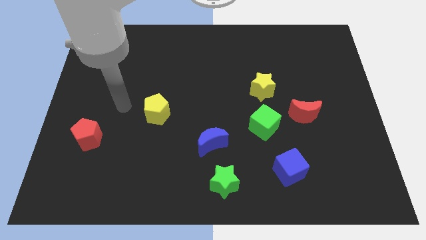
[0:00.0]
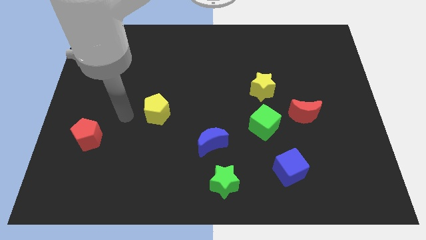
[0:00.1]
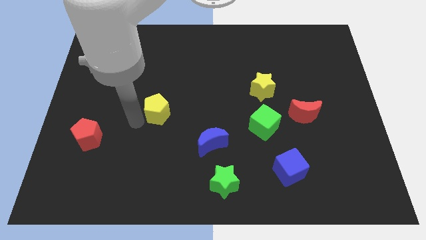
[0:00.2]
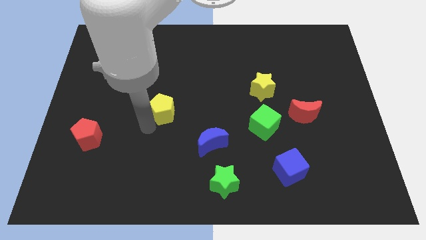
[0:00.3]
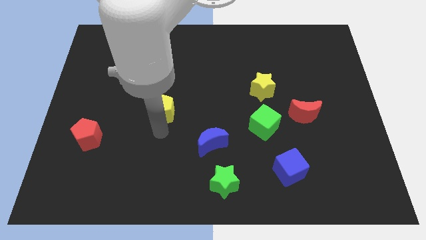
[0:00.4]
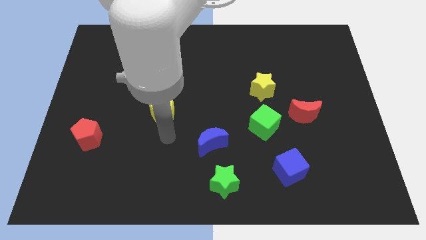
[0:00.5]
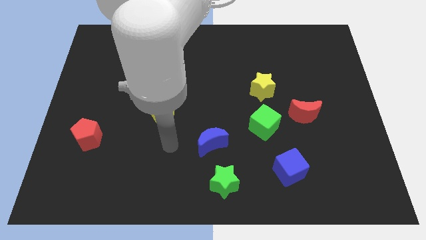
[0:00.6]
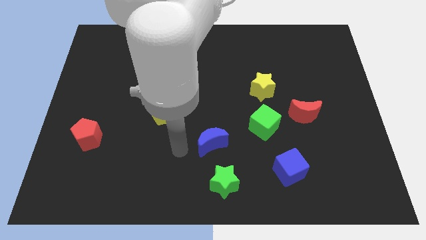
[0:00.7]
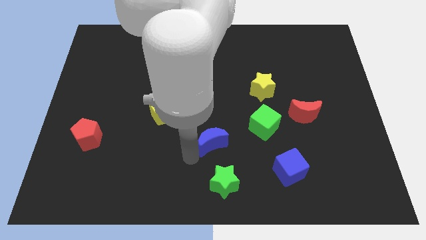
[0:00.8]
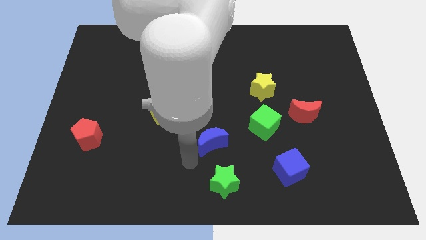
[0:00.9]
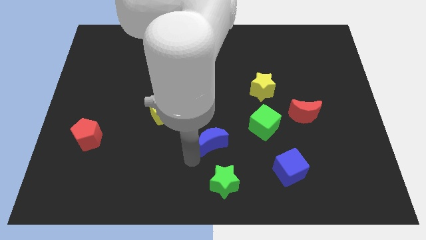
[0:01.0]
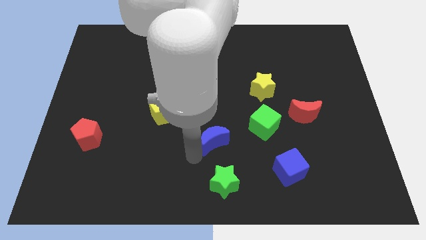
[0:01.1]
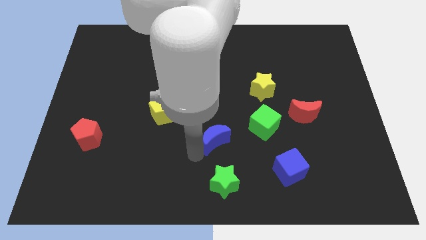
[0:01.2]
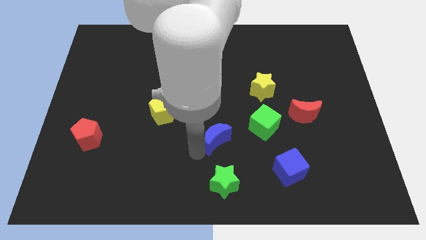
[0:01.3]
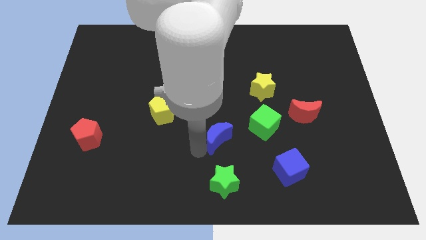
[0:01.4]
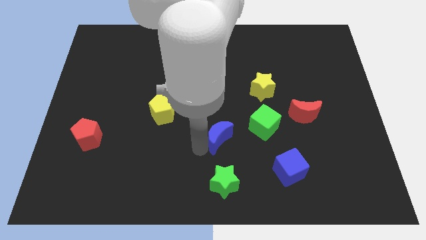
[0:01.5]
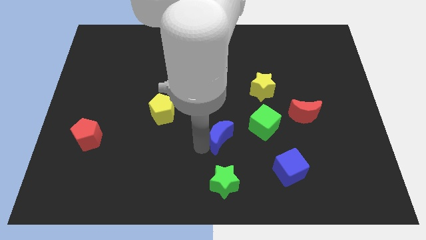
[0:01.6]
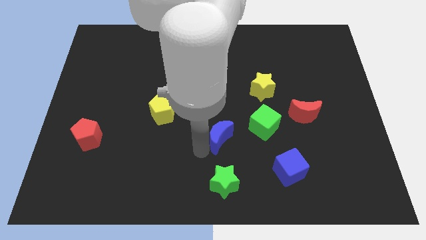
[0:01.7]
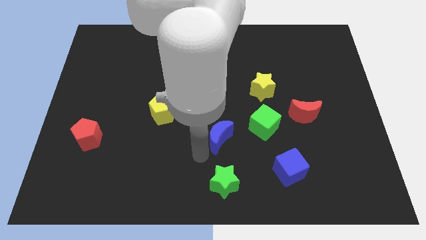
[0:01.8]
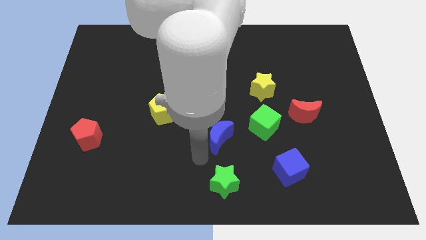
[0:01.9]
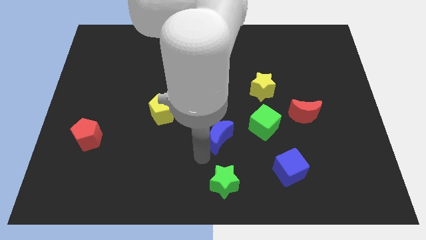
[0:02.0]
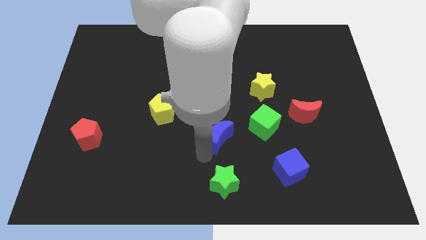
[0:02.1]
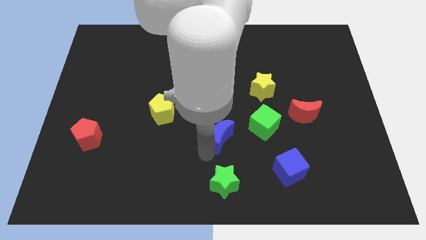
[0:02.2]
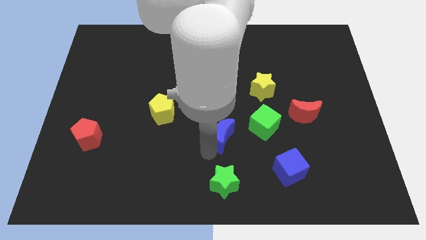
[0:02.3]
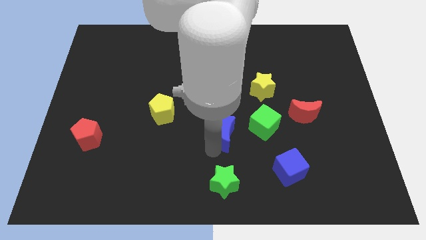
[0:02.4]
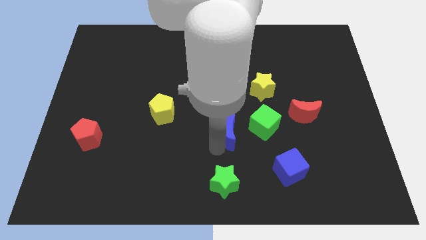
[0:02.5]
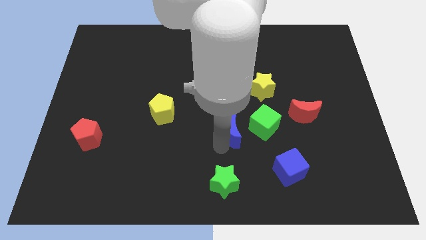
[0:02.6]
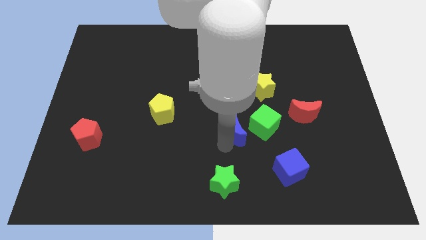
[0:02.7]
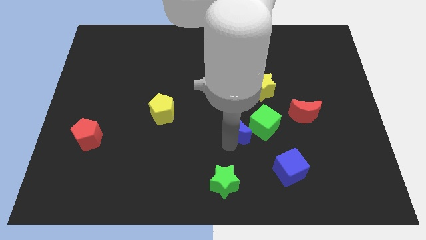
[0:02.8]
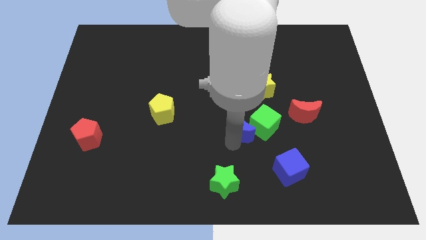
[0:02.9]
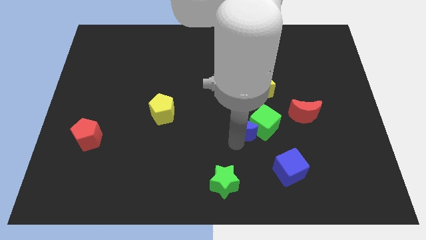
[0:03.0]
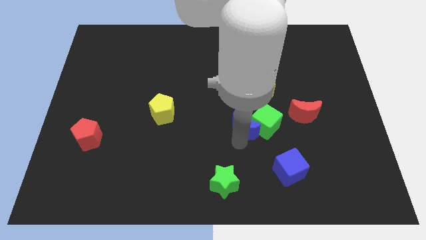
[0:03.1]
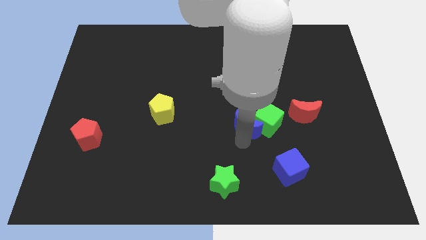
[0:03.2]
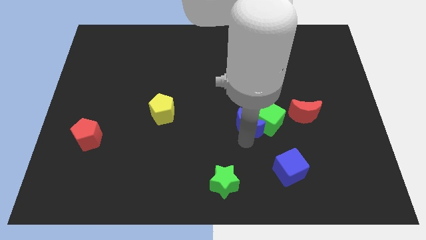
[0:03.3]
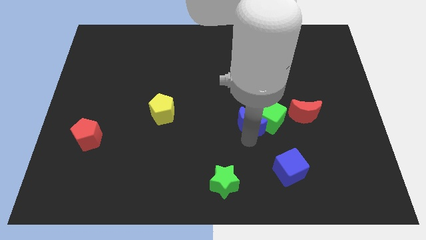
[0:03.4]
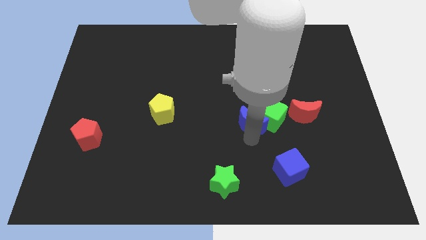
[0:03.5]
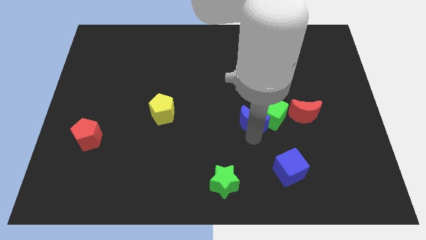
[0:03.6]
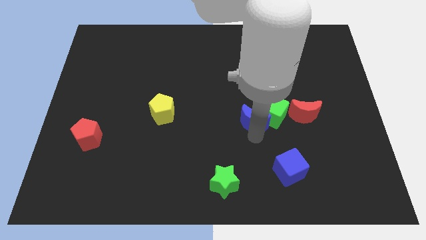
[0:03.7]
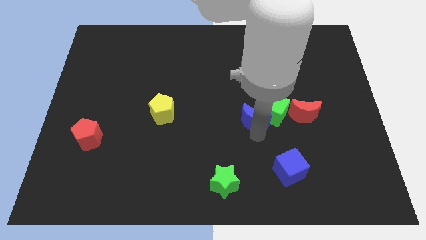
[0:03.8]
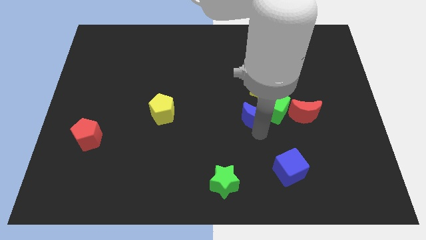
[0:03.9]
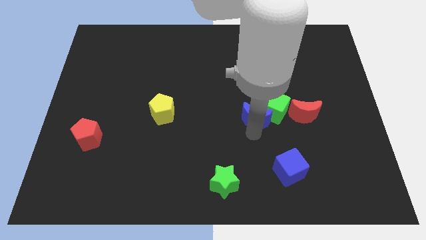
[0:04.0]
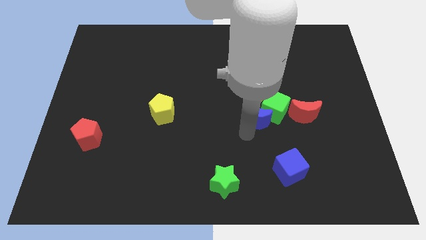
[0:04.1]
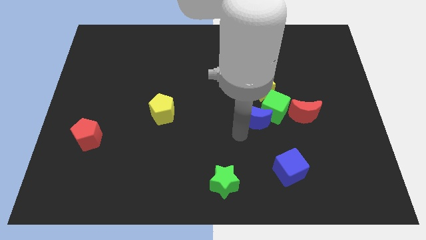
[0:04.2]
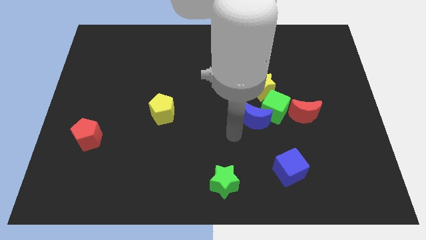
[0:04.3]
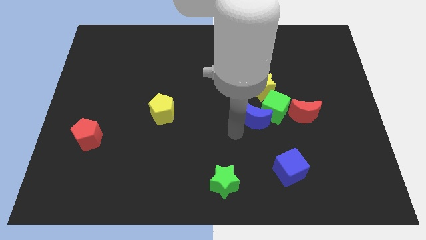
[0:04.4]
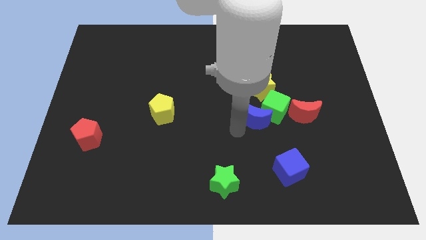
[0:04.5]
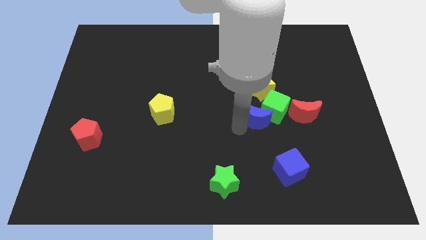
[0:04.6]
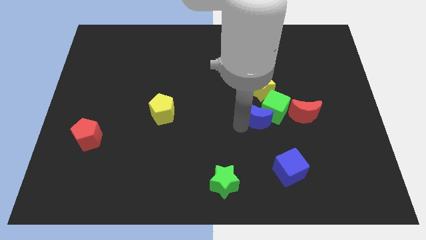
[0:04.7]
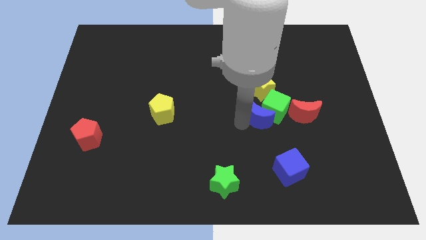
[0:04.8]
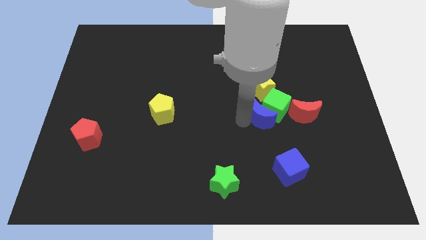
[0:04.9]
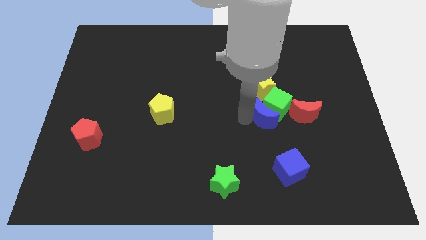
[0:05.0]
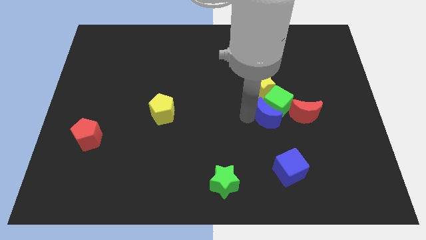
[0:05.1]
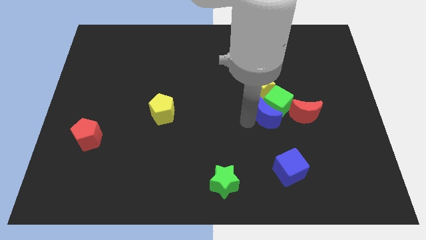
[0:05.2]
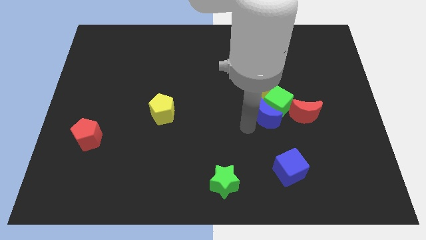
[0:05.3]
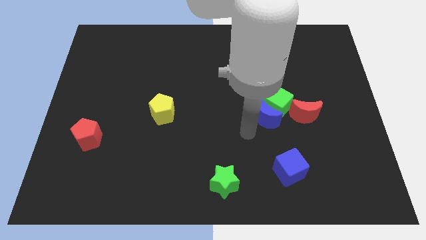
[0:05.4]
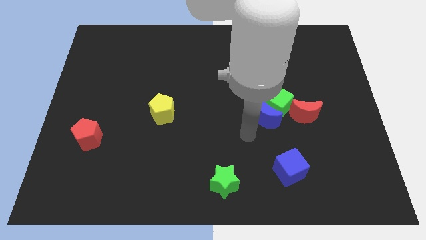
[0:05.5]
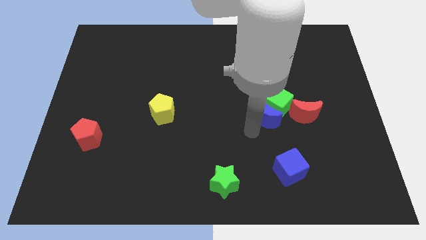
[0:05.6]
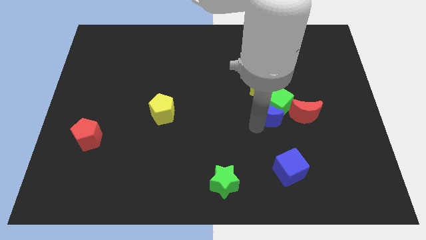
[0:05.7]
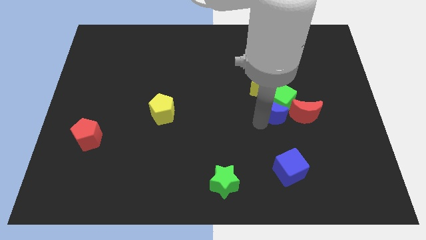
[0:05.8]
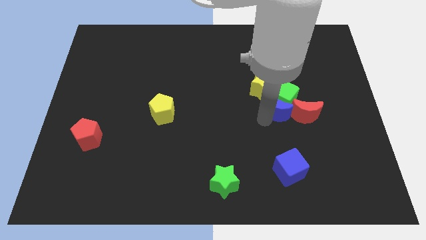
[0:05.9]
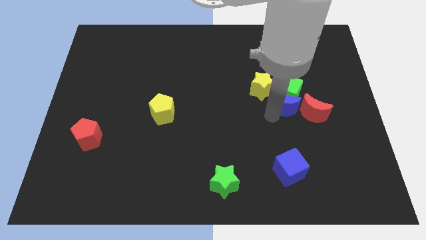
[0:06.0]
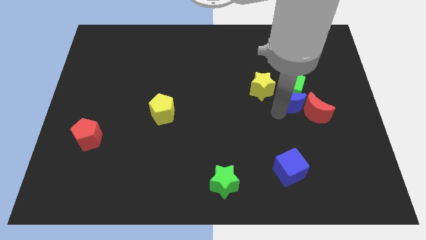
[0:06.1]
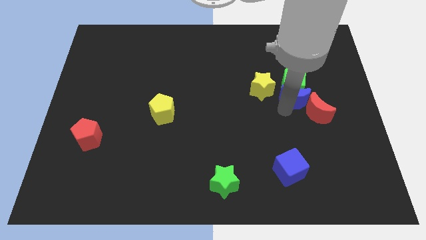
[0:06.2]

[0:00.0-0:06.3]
move the blue moon upwards and to the right diagonally

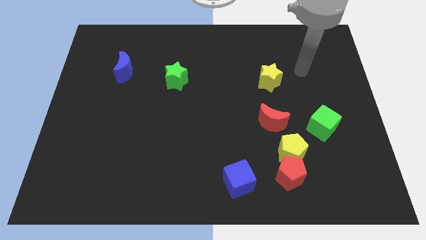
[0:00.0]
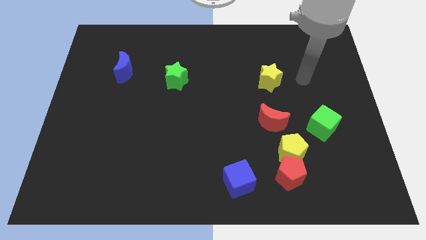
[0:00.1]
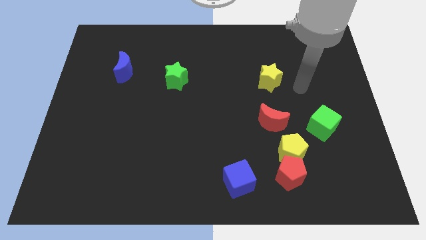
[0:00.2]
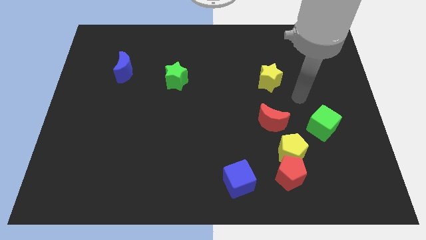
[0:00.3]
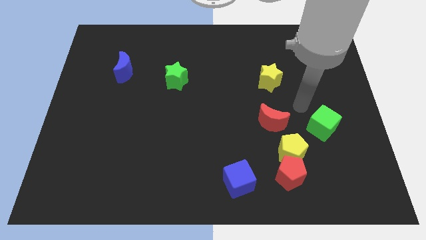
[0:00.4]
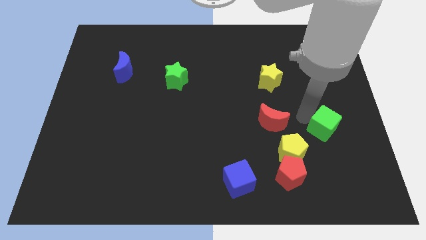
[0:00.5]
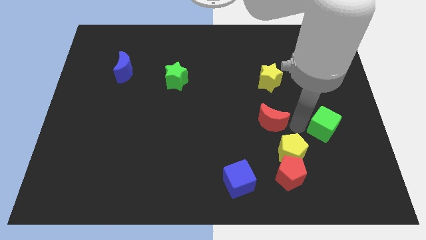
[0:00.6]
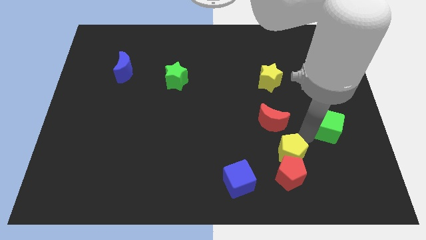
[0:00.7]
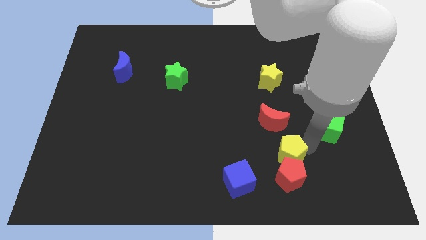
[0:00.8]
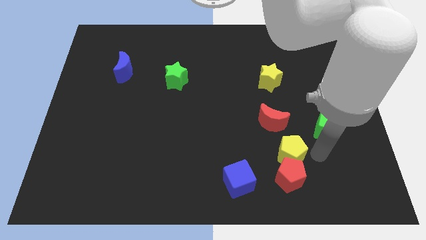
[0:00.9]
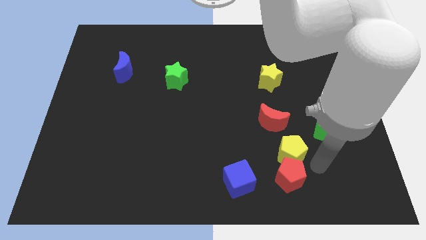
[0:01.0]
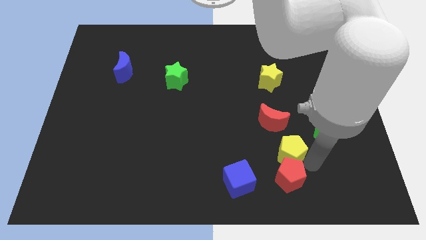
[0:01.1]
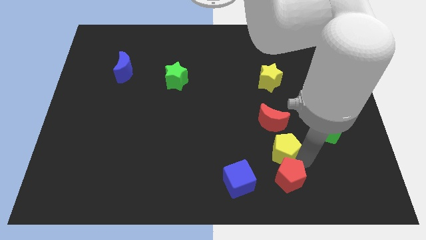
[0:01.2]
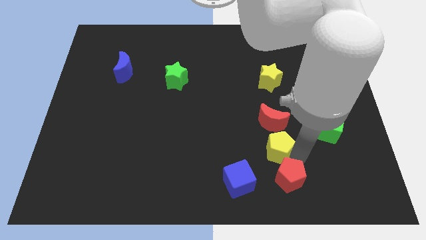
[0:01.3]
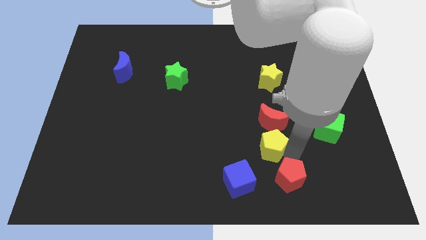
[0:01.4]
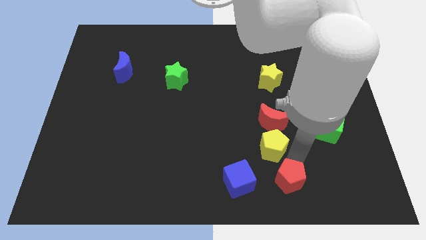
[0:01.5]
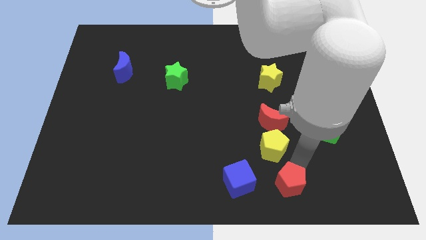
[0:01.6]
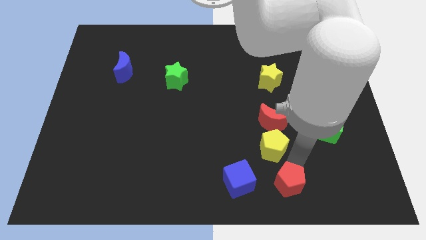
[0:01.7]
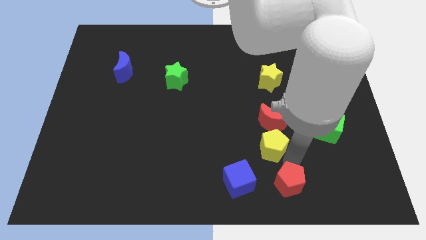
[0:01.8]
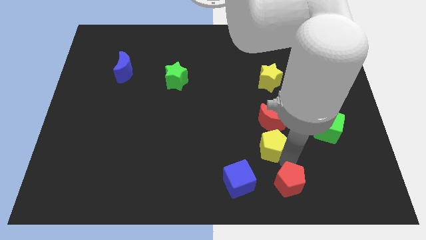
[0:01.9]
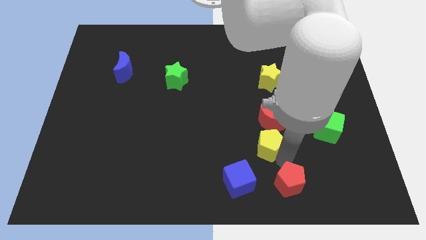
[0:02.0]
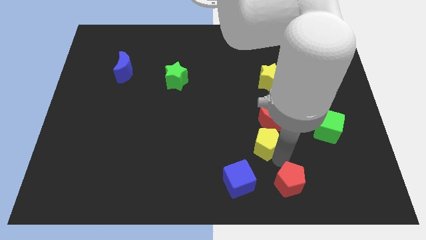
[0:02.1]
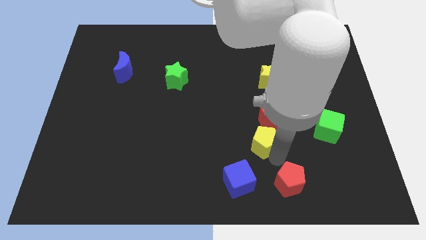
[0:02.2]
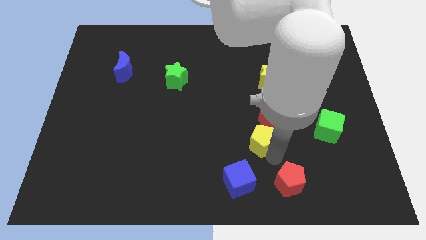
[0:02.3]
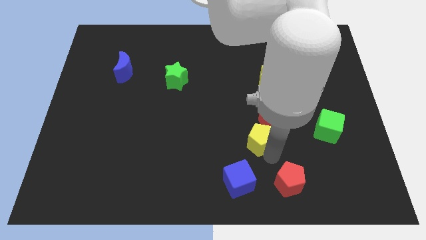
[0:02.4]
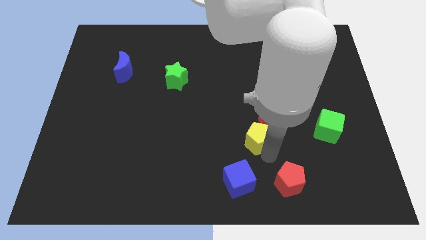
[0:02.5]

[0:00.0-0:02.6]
push the yellow pentagon somewhat up and then left
